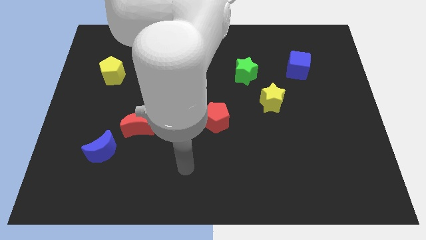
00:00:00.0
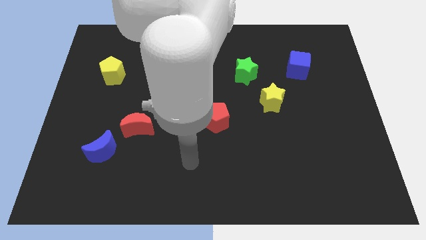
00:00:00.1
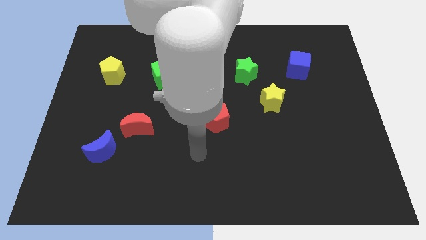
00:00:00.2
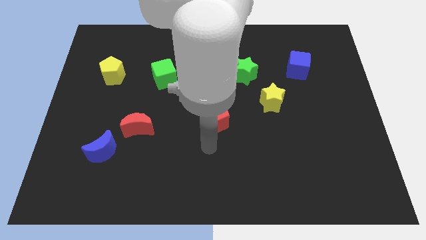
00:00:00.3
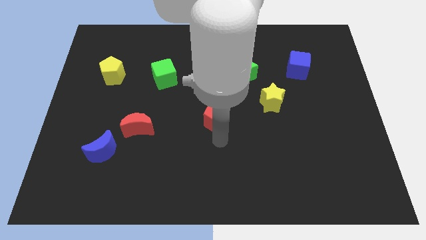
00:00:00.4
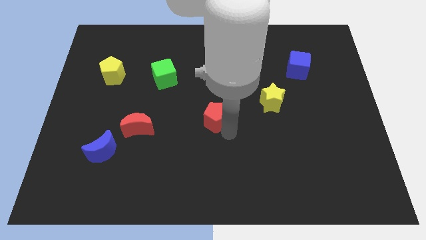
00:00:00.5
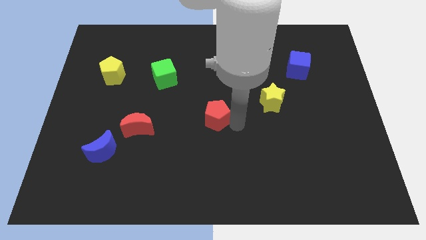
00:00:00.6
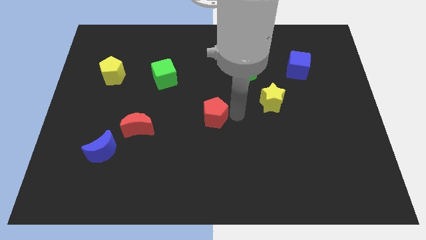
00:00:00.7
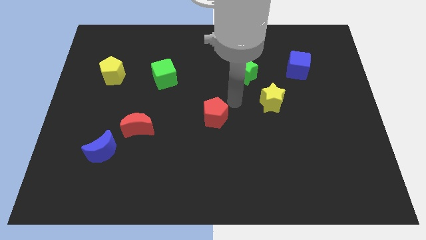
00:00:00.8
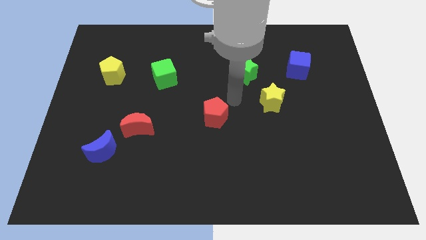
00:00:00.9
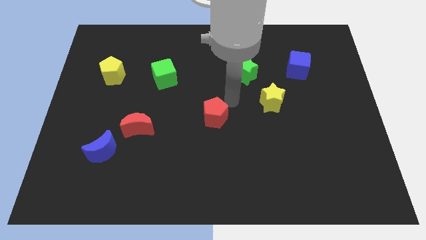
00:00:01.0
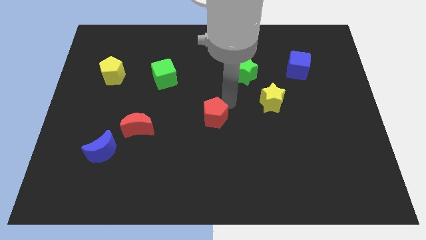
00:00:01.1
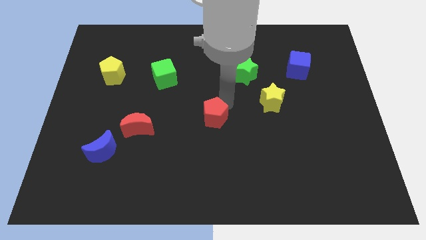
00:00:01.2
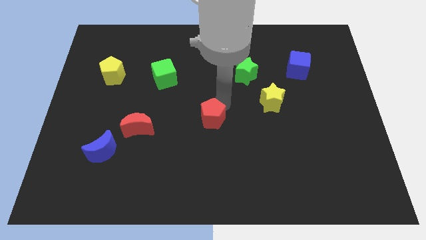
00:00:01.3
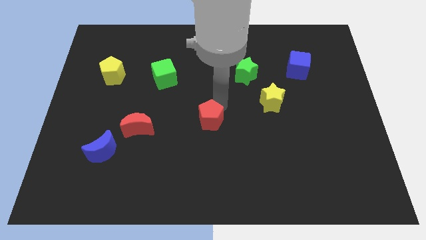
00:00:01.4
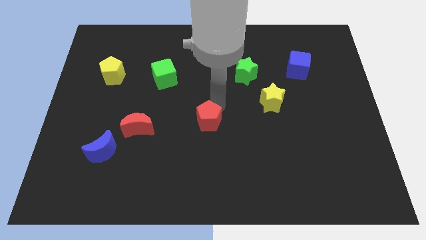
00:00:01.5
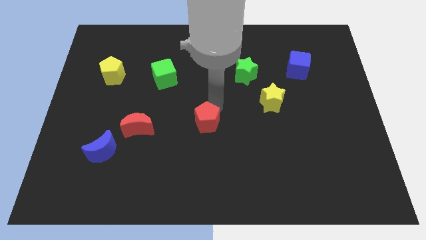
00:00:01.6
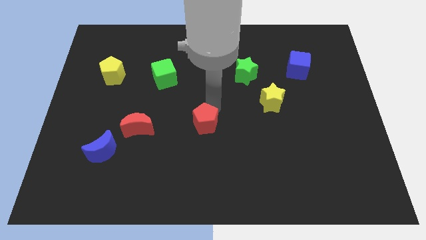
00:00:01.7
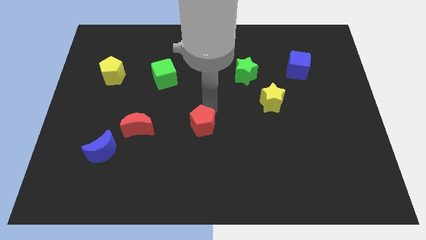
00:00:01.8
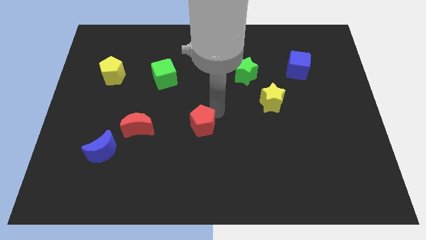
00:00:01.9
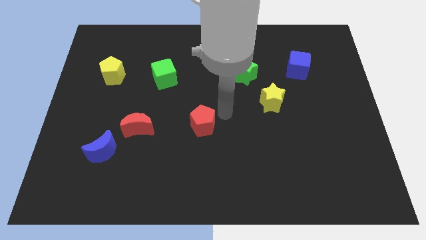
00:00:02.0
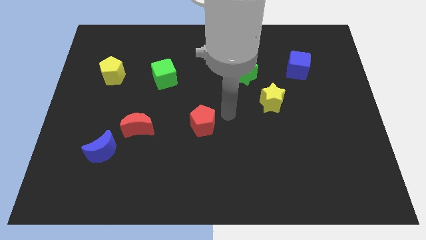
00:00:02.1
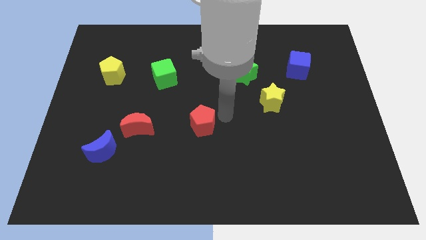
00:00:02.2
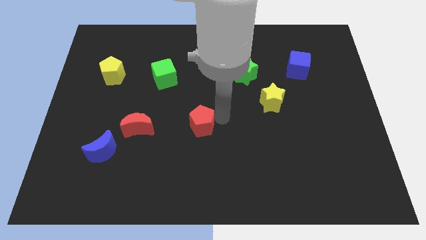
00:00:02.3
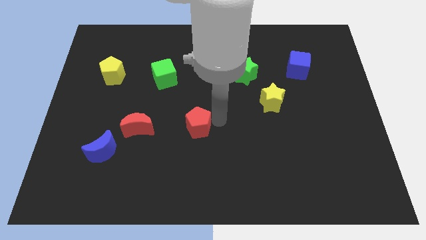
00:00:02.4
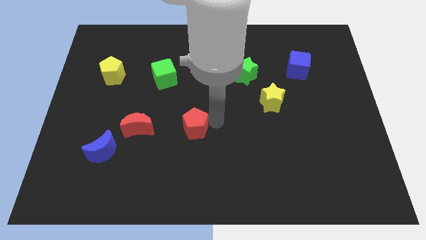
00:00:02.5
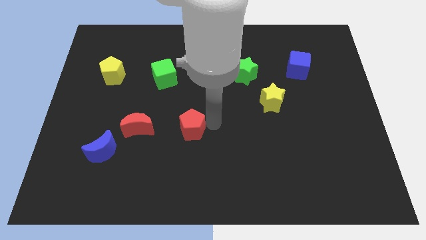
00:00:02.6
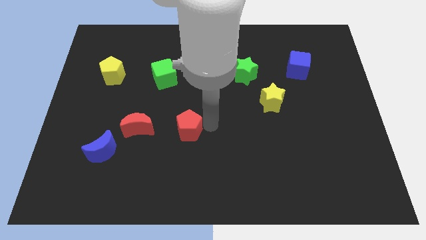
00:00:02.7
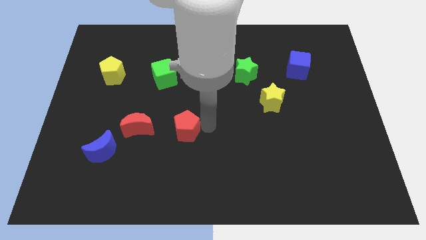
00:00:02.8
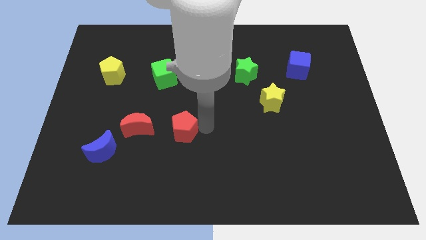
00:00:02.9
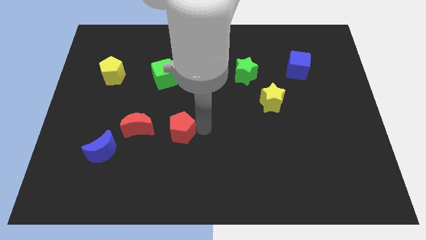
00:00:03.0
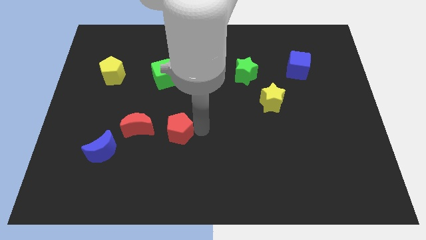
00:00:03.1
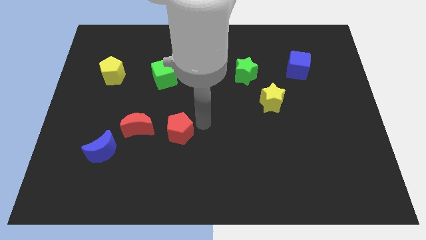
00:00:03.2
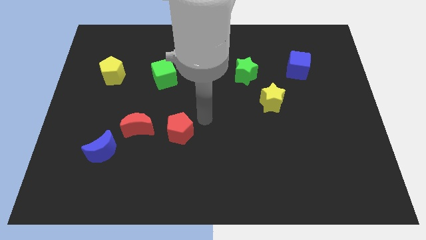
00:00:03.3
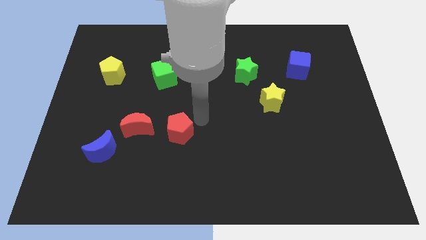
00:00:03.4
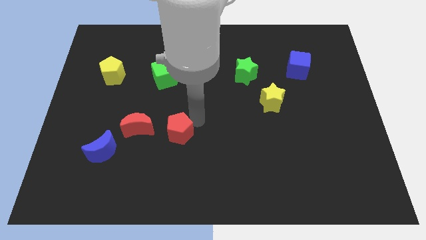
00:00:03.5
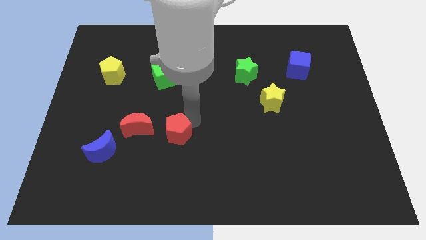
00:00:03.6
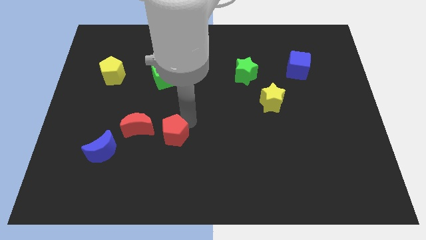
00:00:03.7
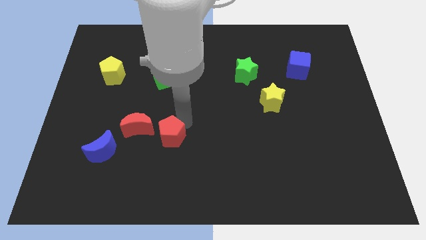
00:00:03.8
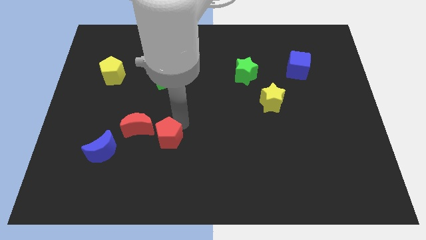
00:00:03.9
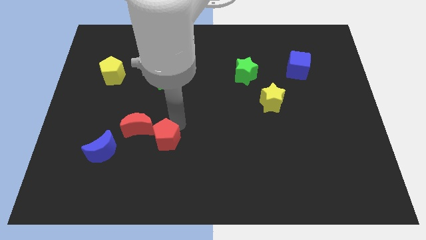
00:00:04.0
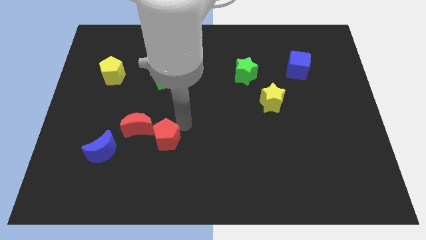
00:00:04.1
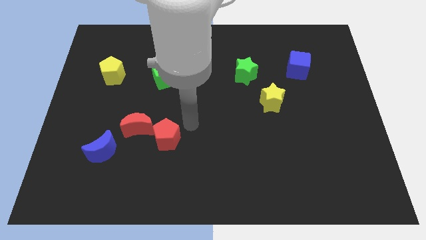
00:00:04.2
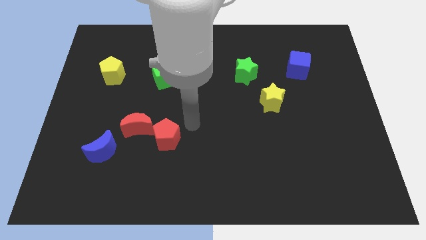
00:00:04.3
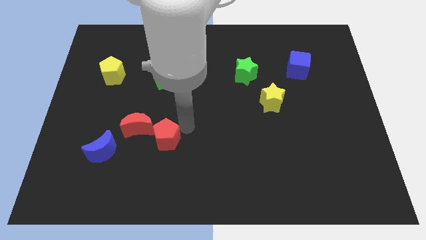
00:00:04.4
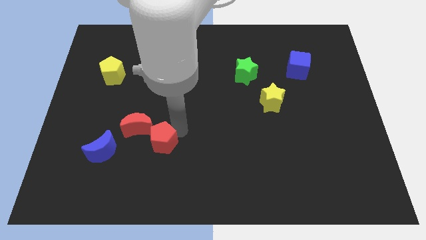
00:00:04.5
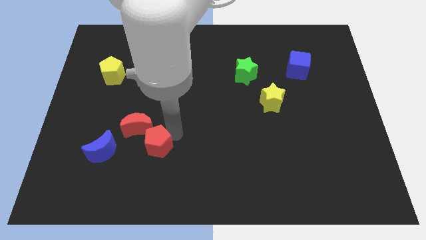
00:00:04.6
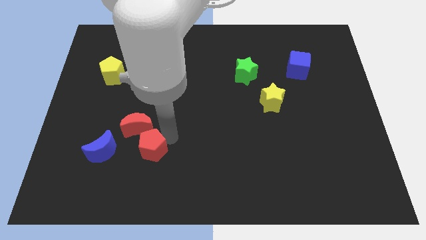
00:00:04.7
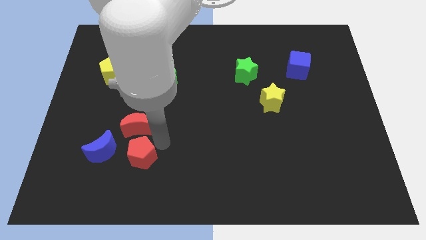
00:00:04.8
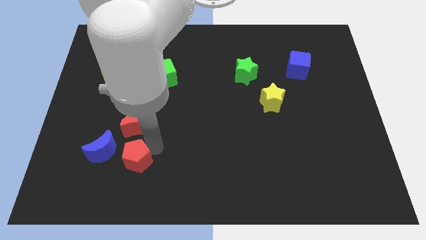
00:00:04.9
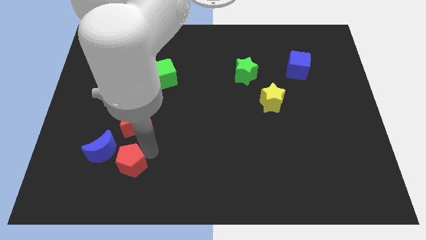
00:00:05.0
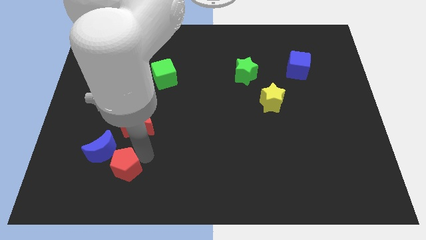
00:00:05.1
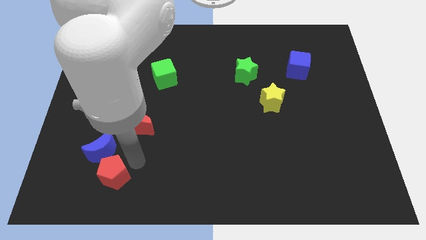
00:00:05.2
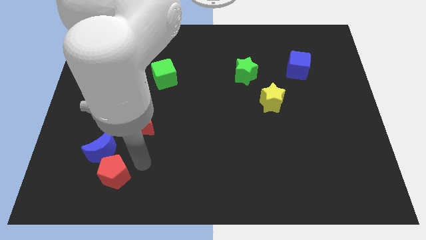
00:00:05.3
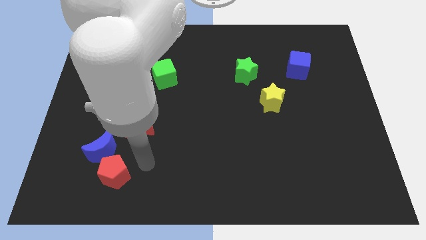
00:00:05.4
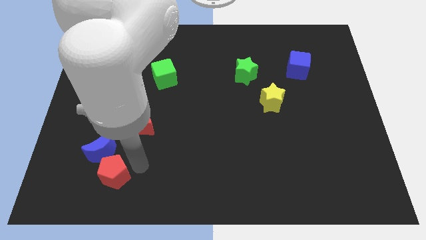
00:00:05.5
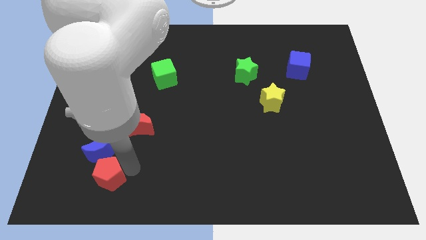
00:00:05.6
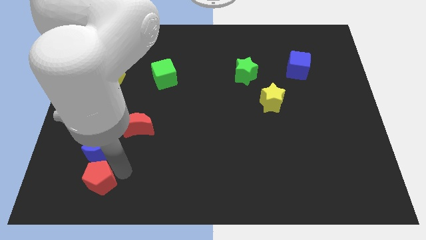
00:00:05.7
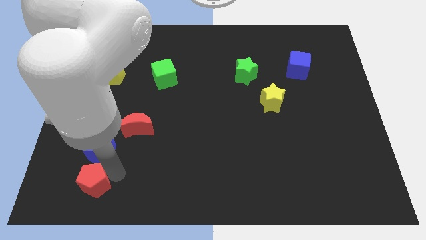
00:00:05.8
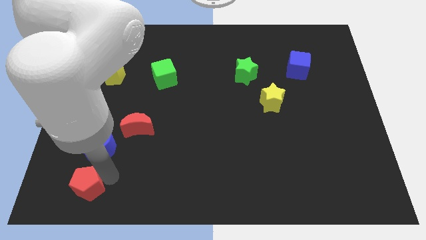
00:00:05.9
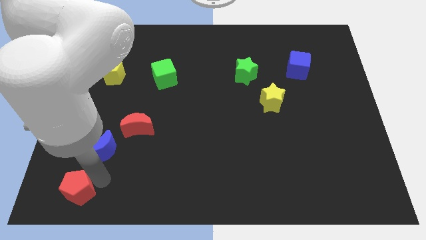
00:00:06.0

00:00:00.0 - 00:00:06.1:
put the red pentagon to the lower left corner

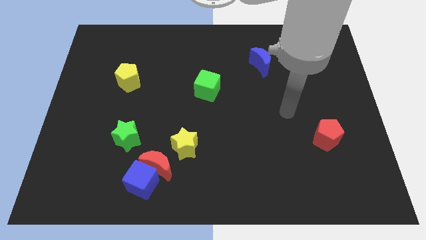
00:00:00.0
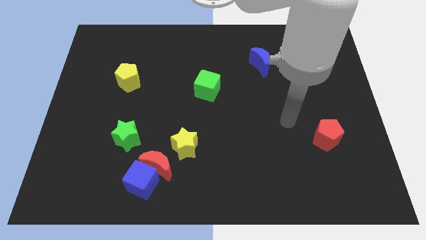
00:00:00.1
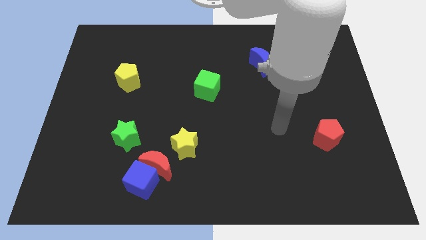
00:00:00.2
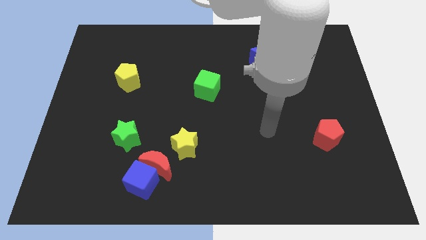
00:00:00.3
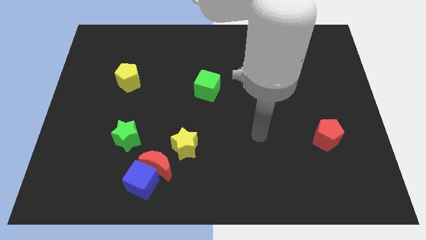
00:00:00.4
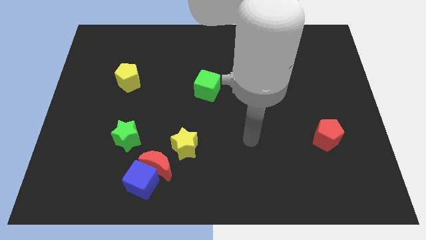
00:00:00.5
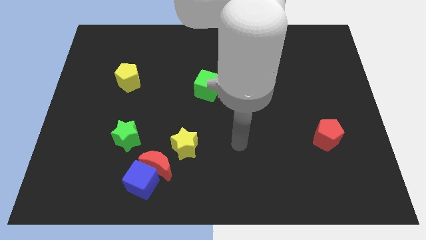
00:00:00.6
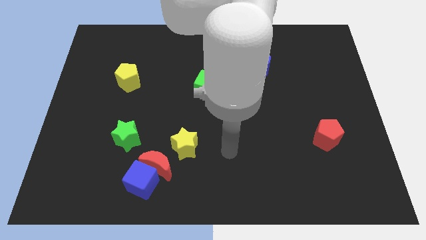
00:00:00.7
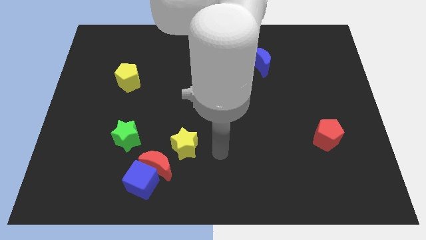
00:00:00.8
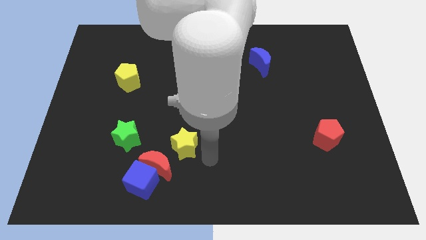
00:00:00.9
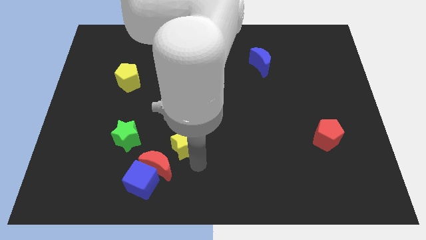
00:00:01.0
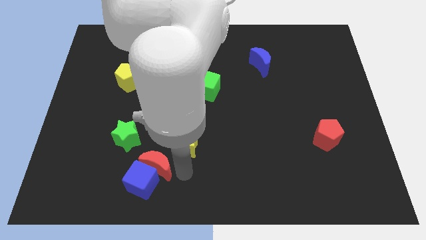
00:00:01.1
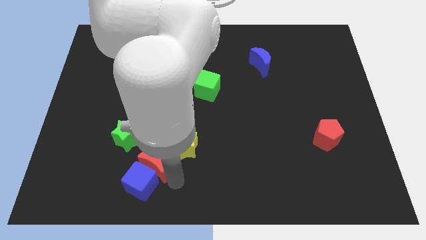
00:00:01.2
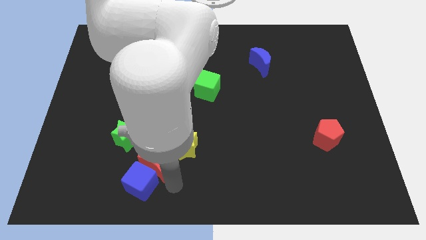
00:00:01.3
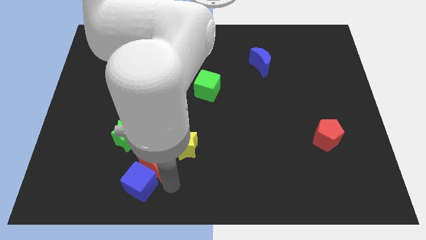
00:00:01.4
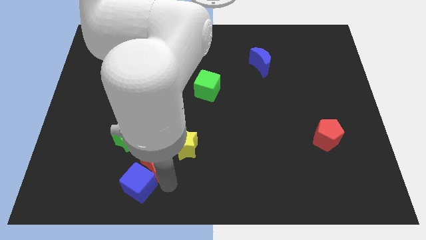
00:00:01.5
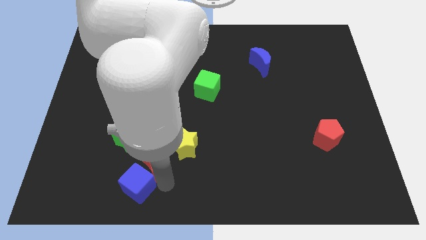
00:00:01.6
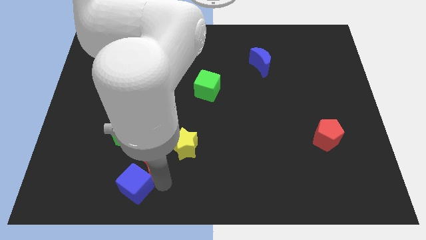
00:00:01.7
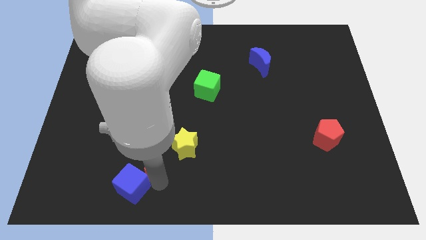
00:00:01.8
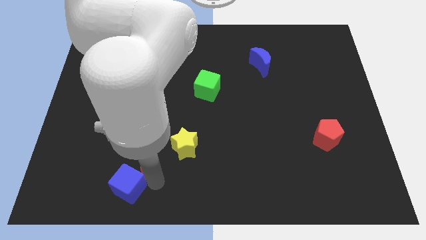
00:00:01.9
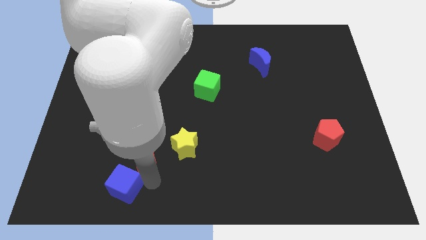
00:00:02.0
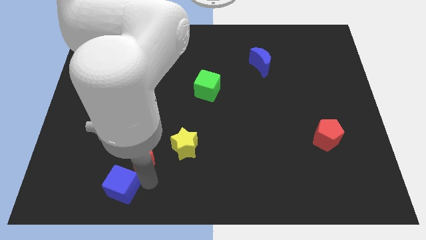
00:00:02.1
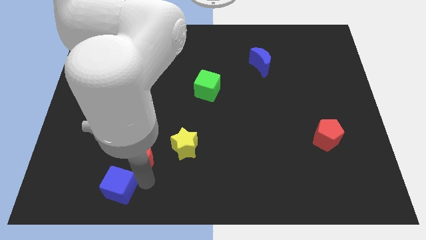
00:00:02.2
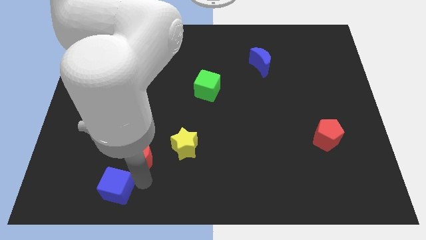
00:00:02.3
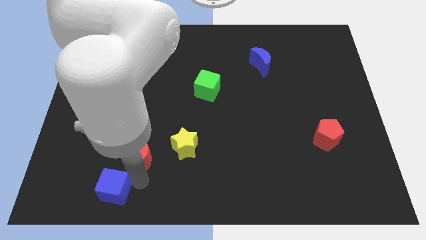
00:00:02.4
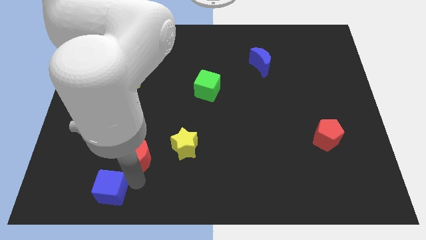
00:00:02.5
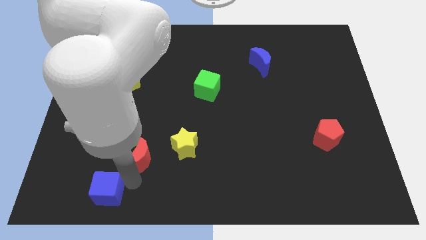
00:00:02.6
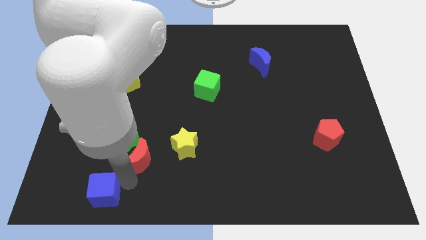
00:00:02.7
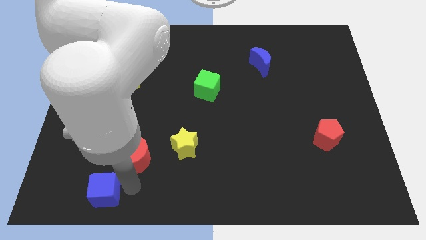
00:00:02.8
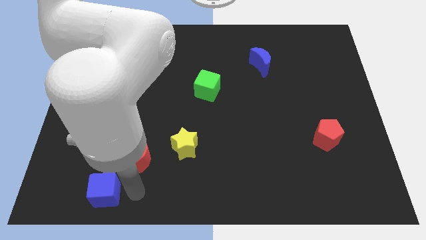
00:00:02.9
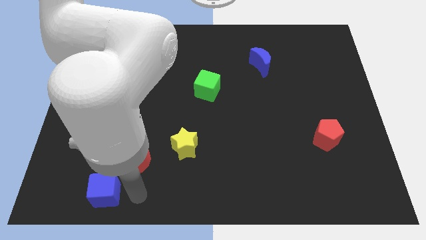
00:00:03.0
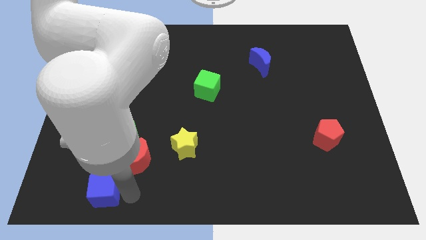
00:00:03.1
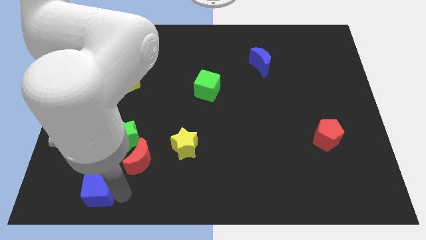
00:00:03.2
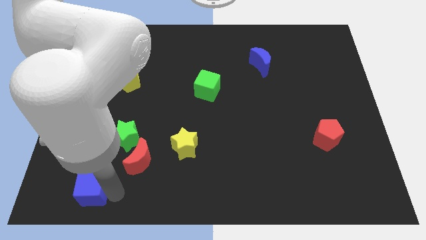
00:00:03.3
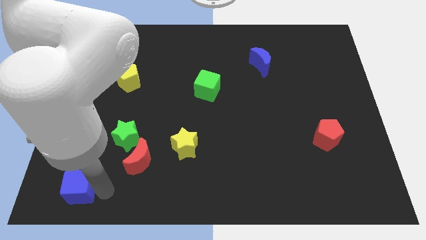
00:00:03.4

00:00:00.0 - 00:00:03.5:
push the blue cube to the bottom left corner
